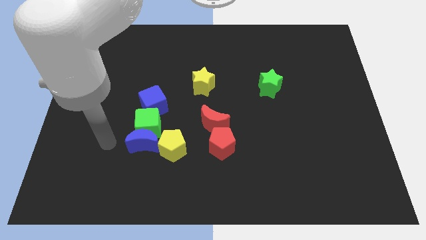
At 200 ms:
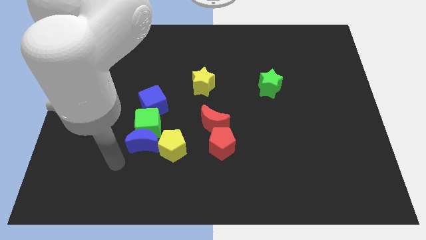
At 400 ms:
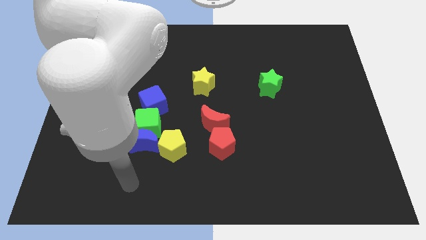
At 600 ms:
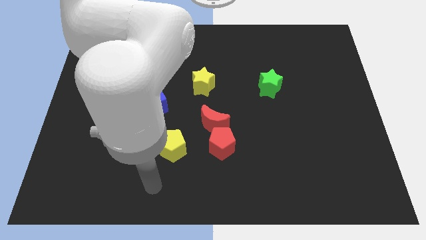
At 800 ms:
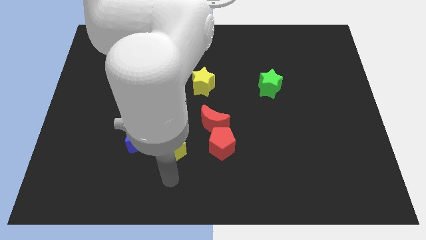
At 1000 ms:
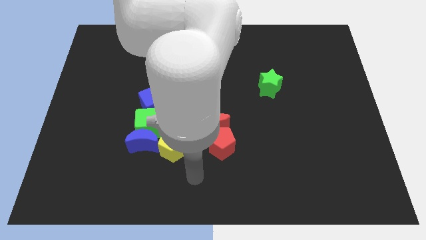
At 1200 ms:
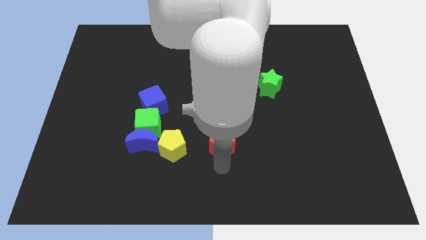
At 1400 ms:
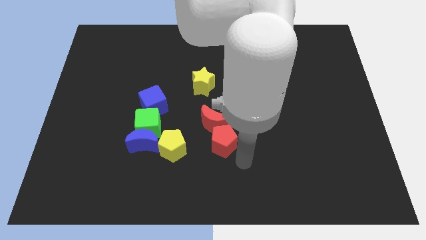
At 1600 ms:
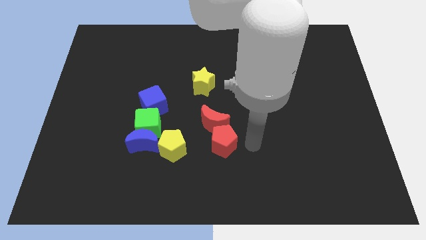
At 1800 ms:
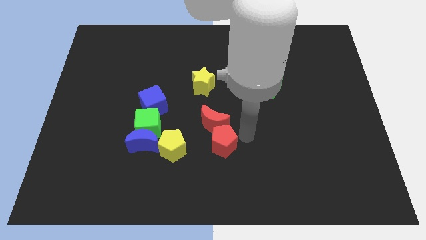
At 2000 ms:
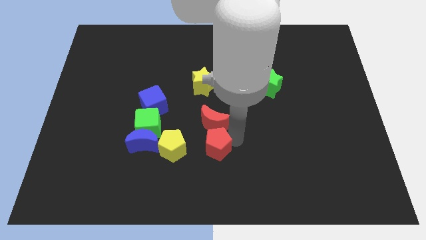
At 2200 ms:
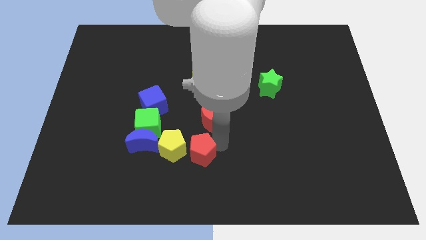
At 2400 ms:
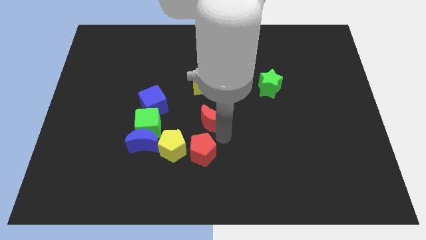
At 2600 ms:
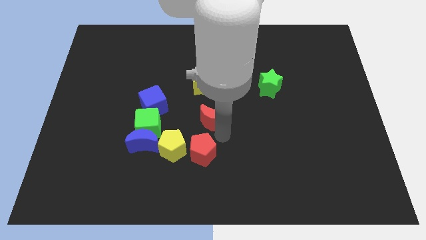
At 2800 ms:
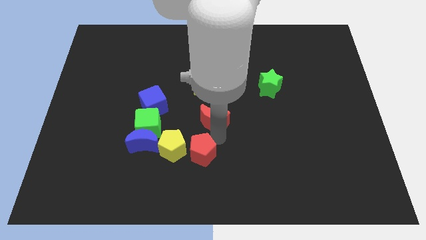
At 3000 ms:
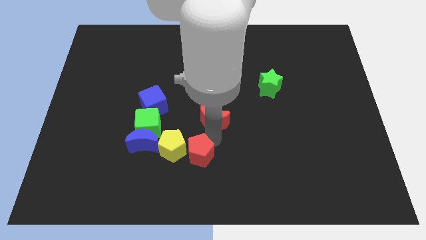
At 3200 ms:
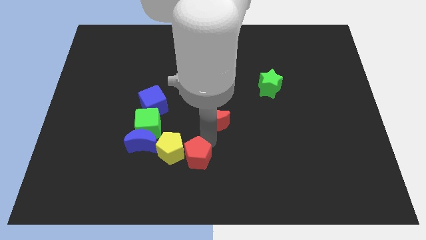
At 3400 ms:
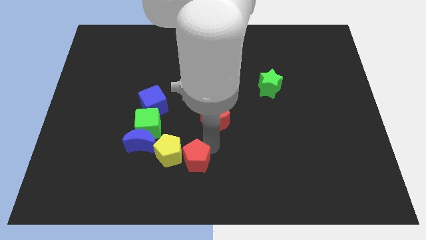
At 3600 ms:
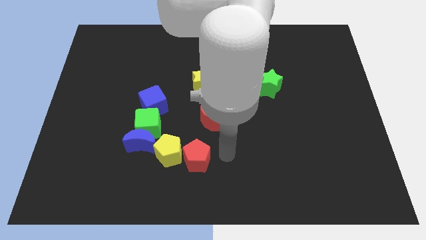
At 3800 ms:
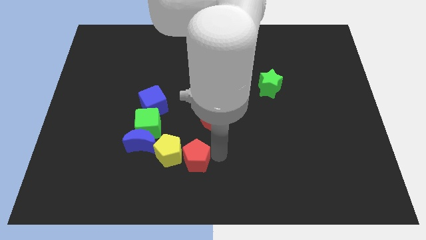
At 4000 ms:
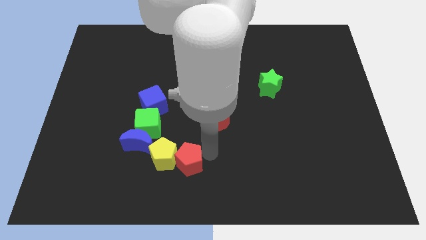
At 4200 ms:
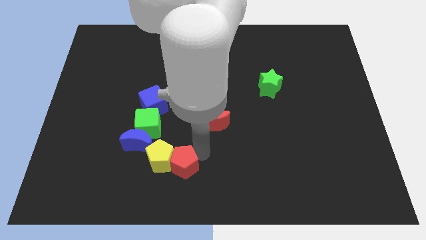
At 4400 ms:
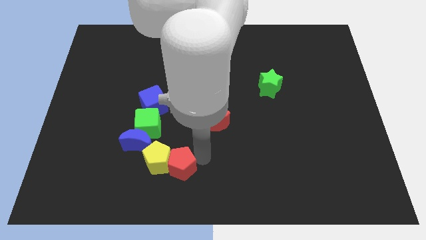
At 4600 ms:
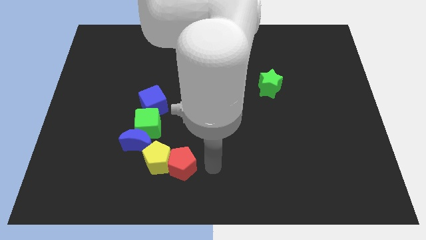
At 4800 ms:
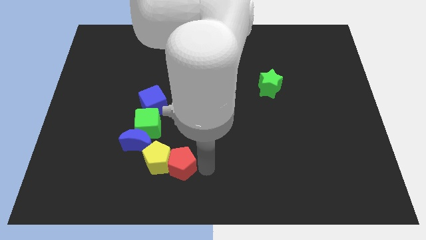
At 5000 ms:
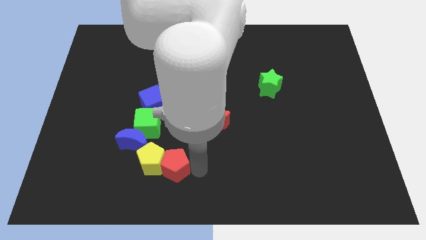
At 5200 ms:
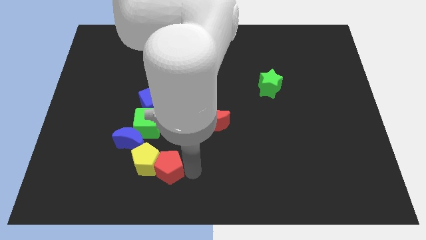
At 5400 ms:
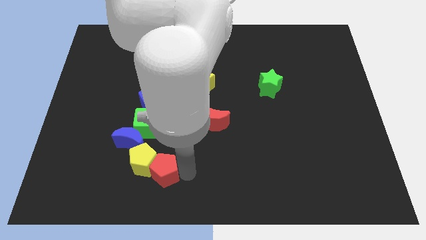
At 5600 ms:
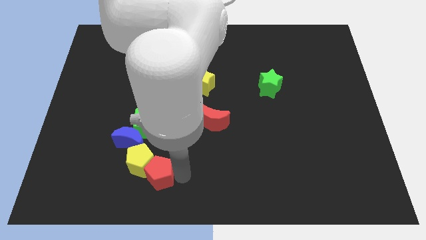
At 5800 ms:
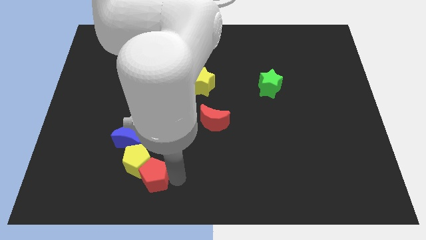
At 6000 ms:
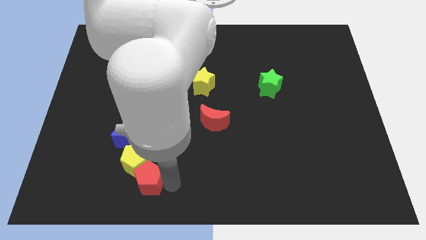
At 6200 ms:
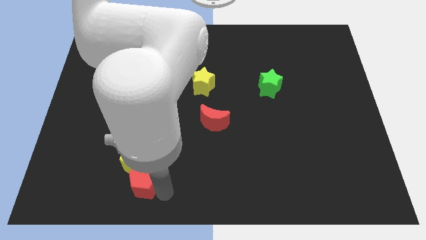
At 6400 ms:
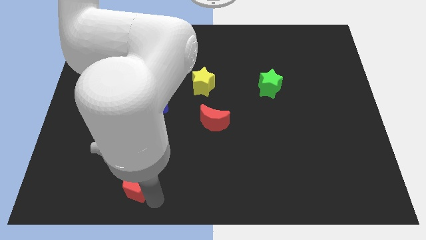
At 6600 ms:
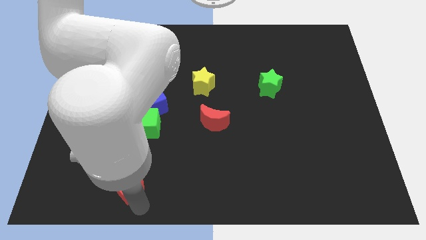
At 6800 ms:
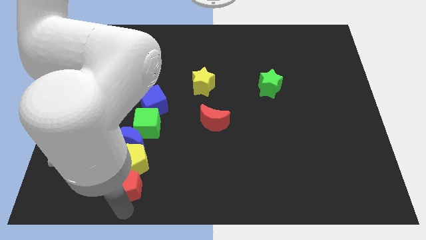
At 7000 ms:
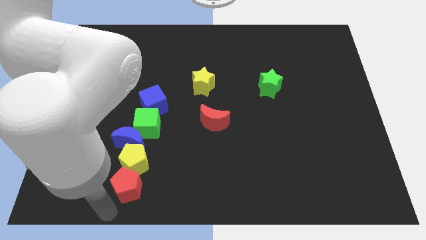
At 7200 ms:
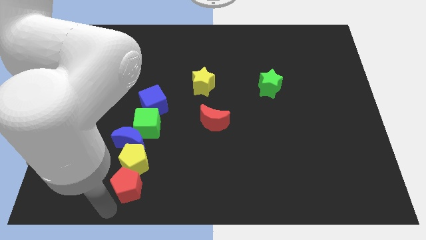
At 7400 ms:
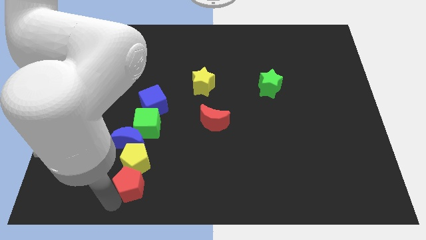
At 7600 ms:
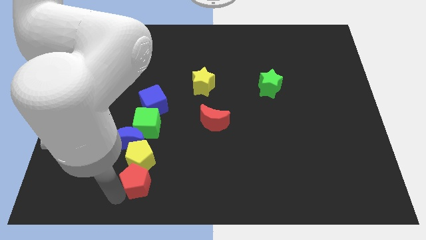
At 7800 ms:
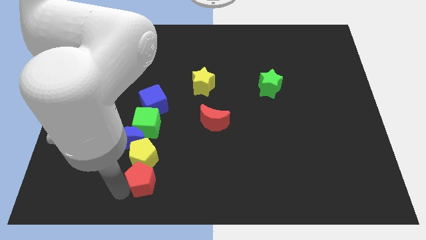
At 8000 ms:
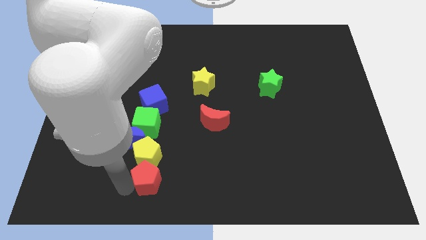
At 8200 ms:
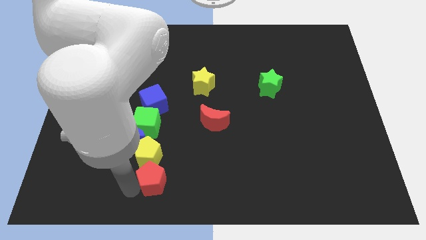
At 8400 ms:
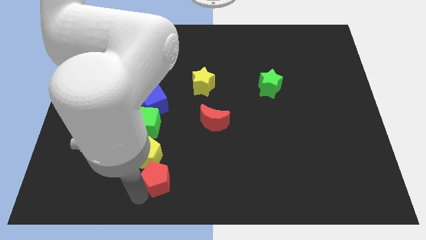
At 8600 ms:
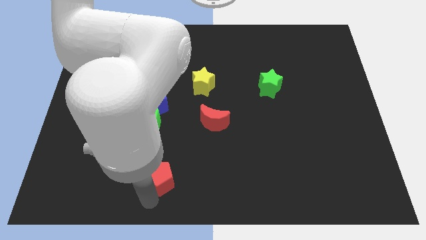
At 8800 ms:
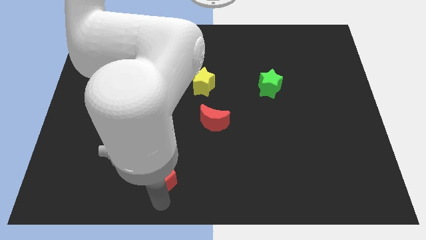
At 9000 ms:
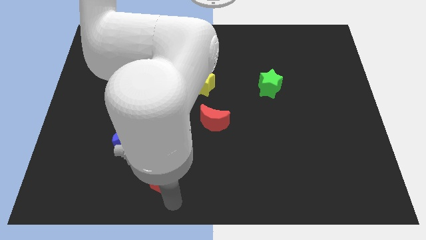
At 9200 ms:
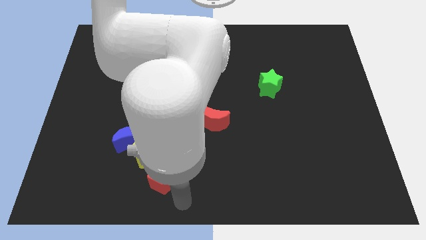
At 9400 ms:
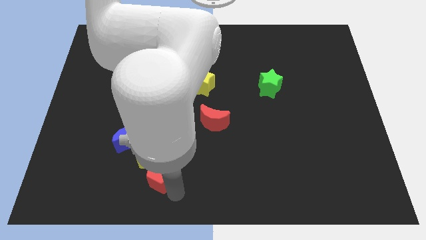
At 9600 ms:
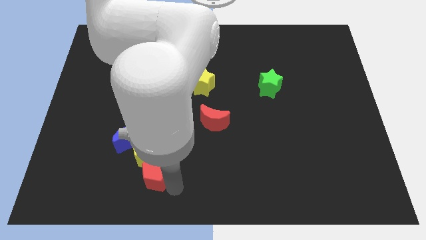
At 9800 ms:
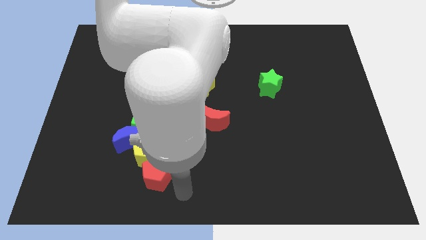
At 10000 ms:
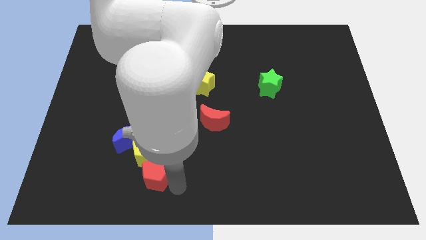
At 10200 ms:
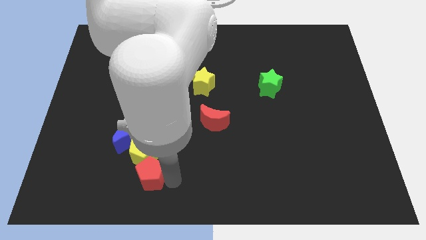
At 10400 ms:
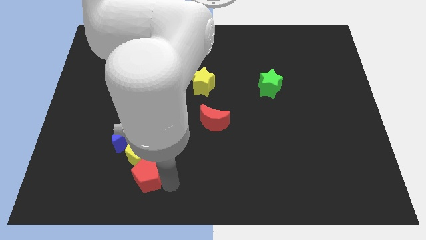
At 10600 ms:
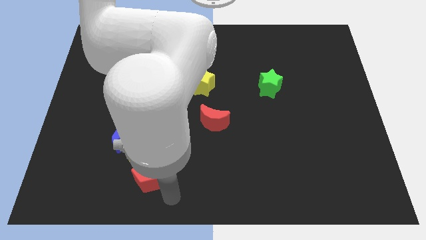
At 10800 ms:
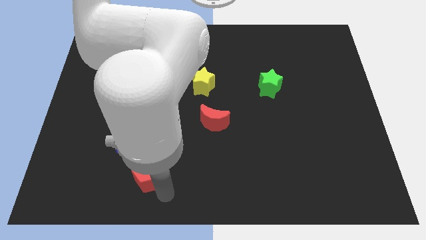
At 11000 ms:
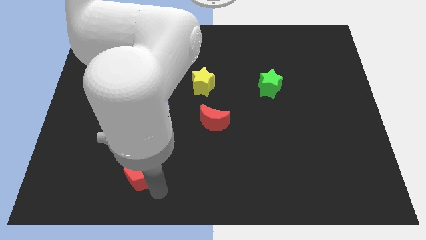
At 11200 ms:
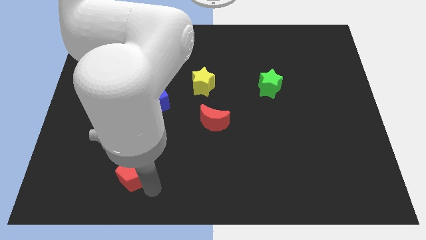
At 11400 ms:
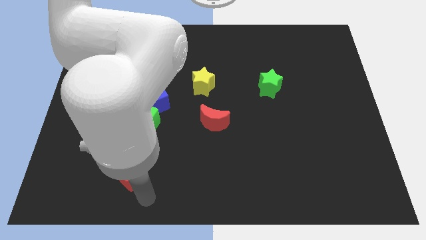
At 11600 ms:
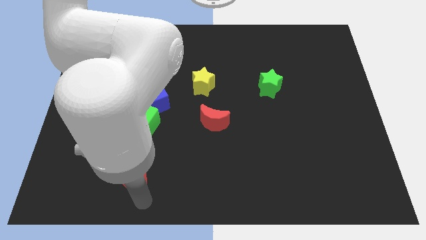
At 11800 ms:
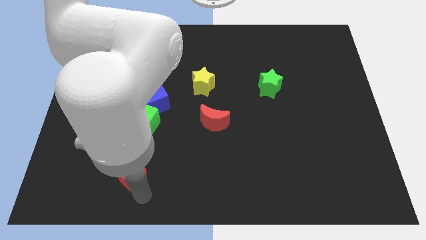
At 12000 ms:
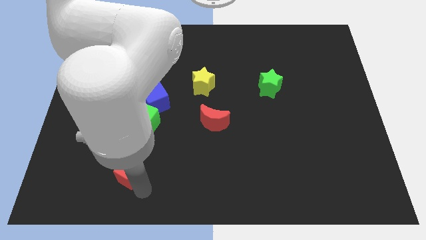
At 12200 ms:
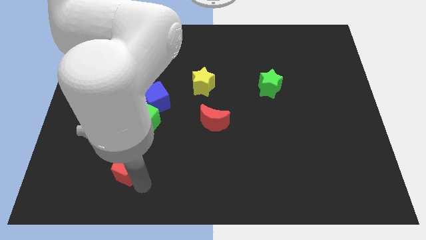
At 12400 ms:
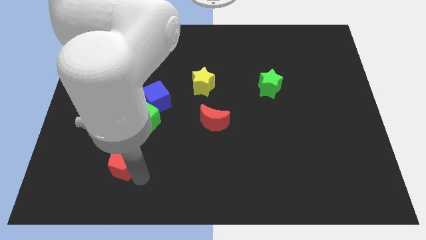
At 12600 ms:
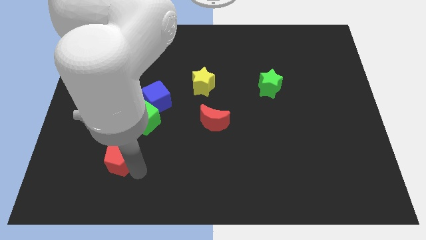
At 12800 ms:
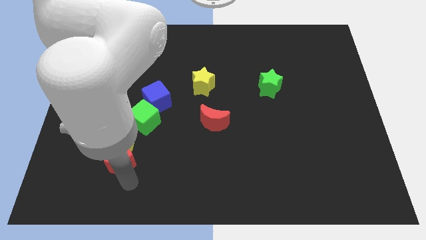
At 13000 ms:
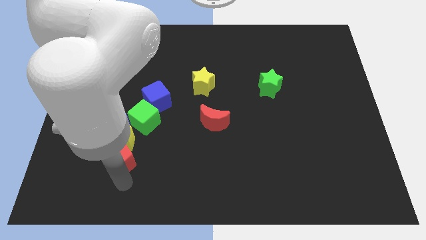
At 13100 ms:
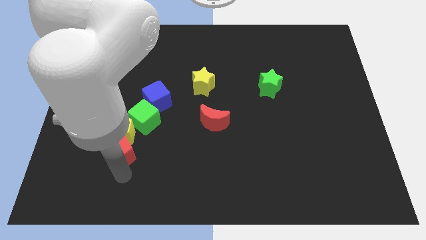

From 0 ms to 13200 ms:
move the red pentagon to the bottom left side of the green cube
